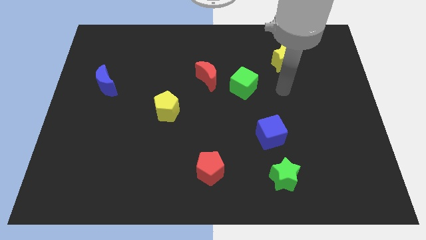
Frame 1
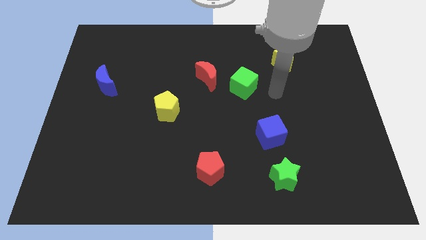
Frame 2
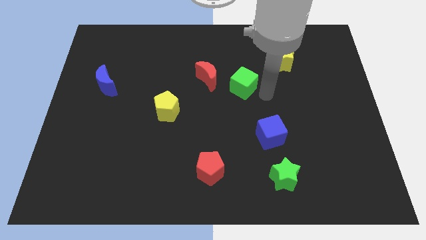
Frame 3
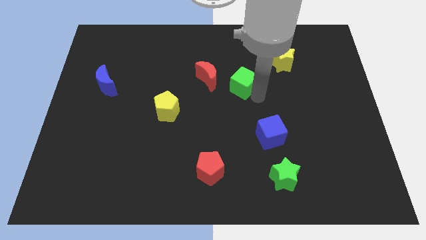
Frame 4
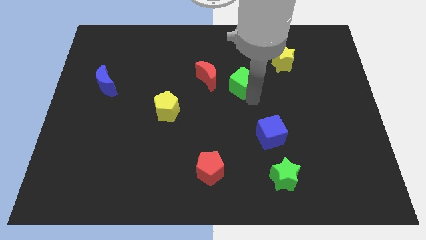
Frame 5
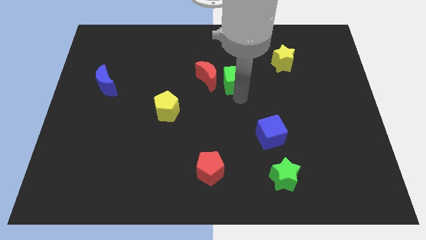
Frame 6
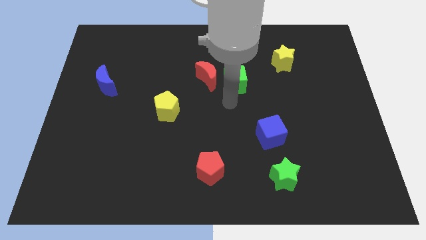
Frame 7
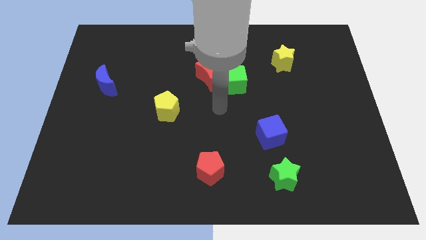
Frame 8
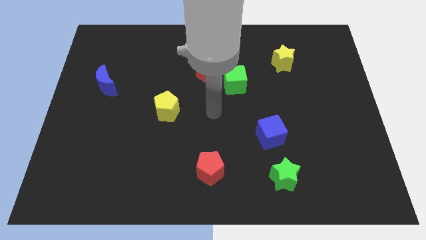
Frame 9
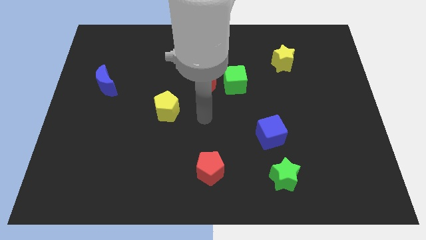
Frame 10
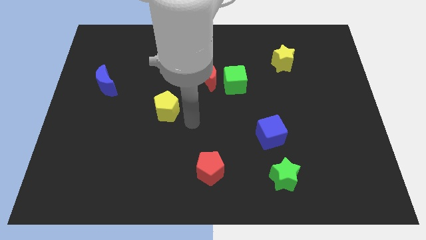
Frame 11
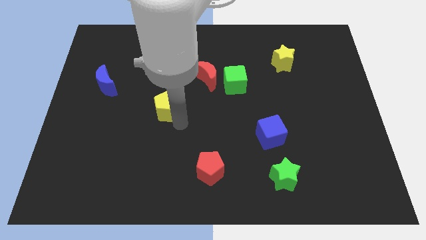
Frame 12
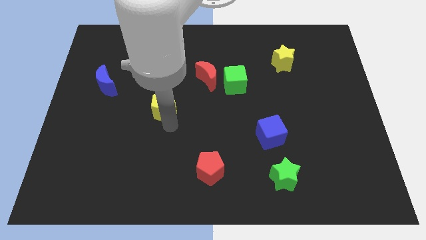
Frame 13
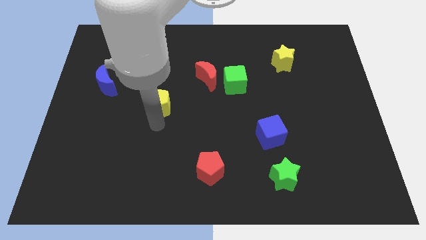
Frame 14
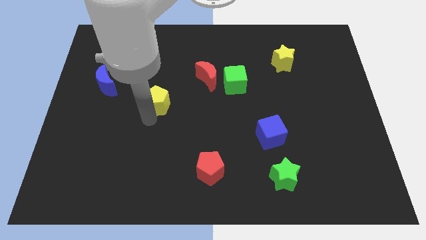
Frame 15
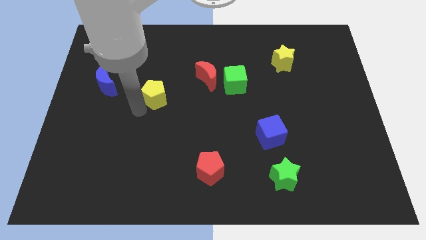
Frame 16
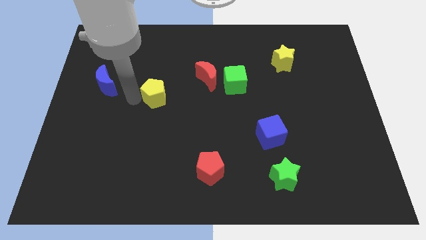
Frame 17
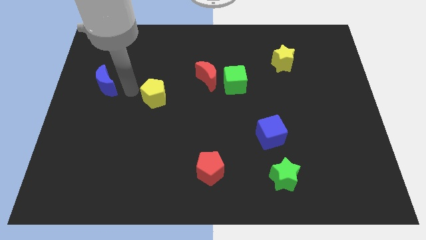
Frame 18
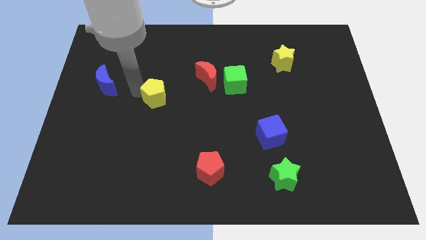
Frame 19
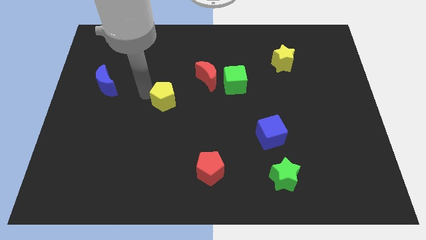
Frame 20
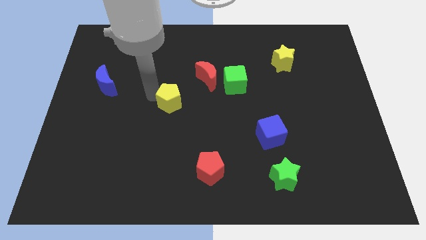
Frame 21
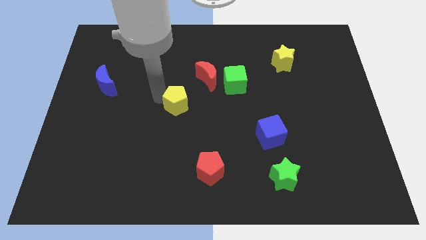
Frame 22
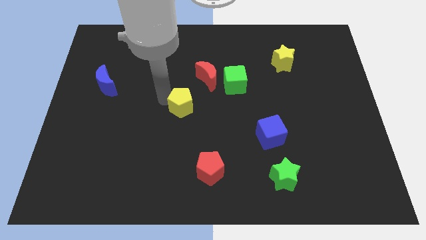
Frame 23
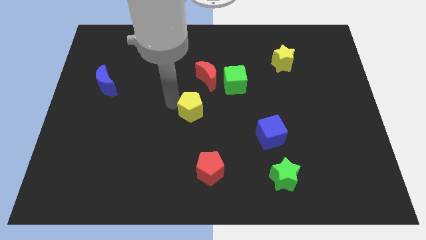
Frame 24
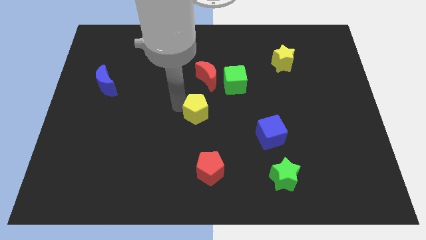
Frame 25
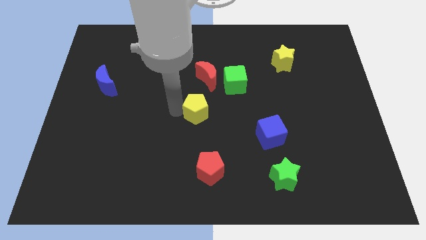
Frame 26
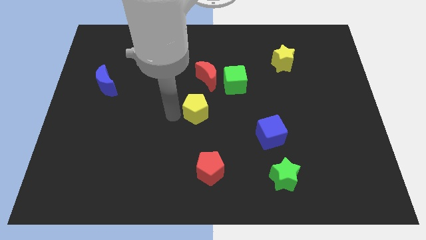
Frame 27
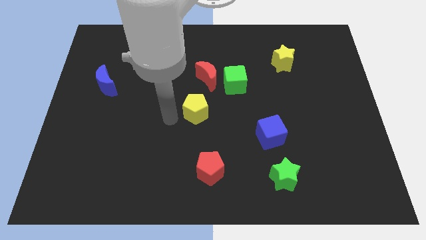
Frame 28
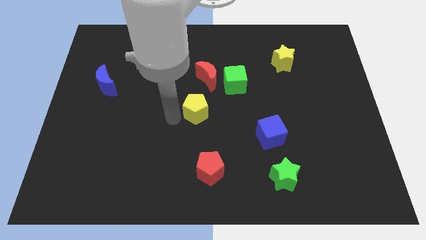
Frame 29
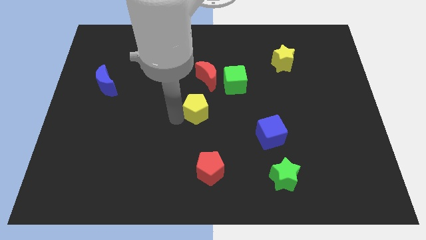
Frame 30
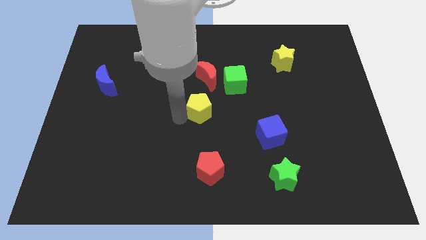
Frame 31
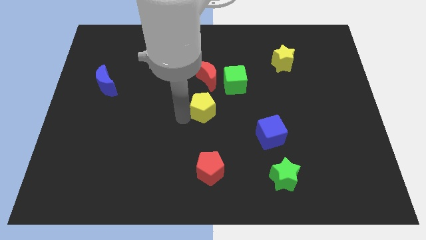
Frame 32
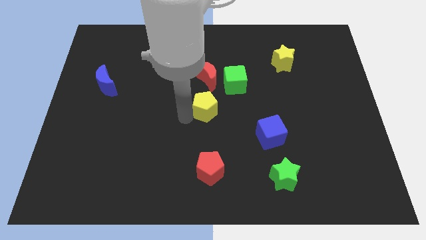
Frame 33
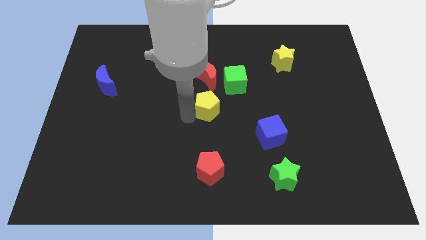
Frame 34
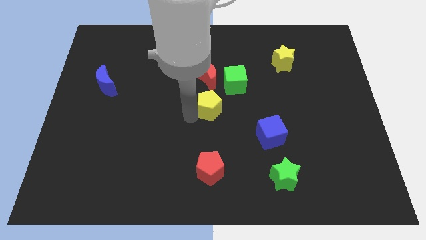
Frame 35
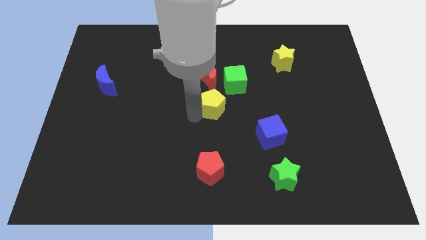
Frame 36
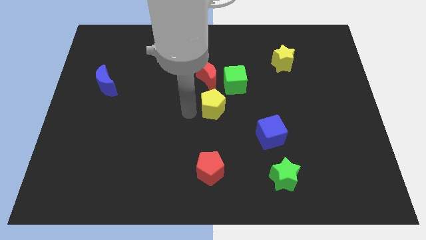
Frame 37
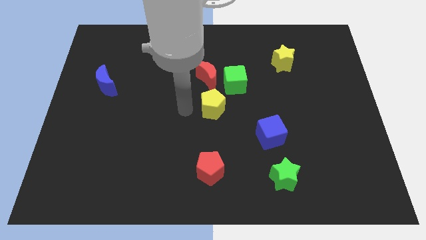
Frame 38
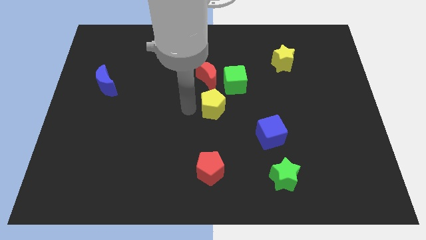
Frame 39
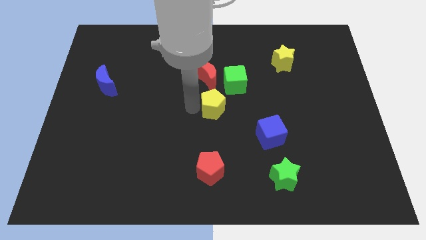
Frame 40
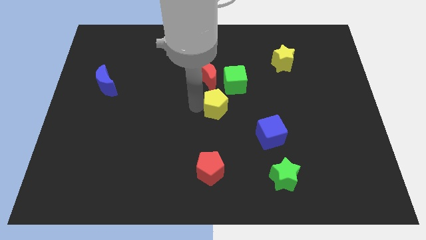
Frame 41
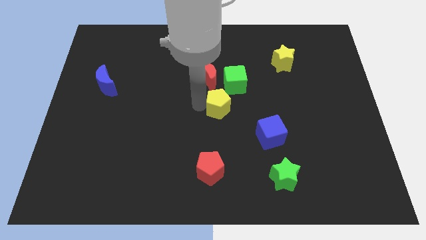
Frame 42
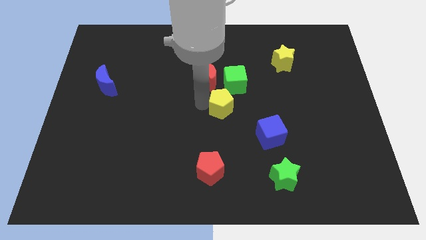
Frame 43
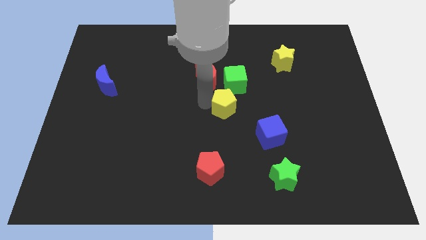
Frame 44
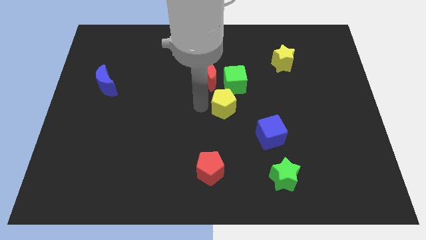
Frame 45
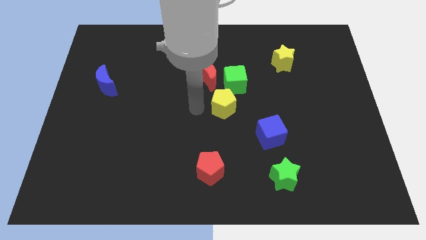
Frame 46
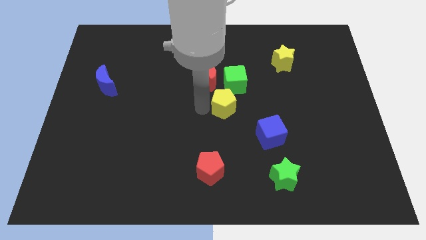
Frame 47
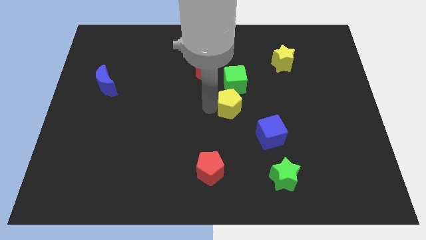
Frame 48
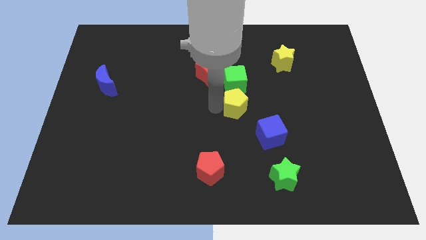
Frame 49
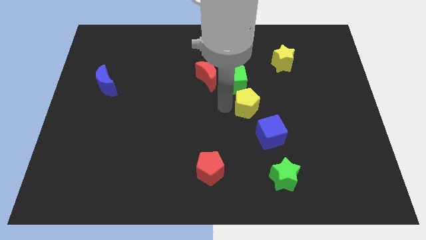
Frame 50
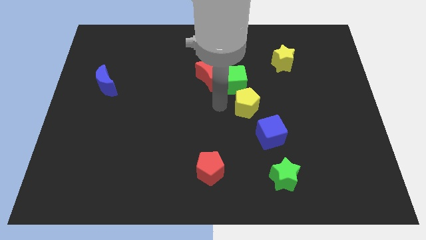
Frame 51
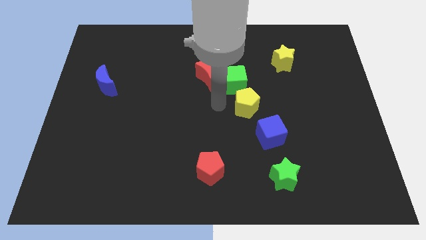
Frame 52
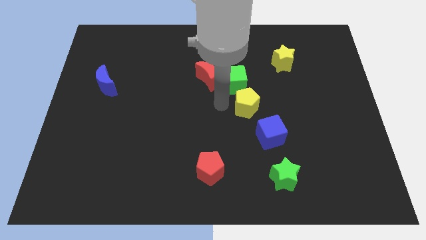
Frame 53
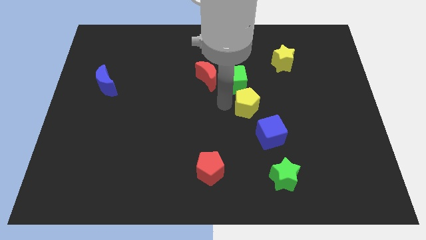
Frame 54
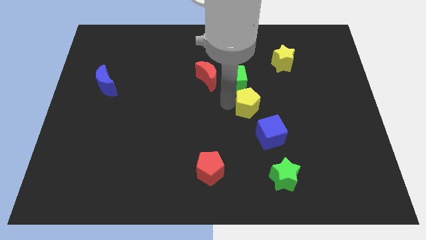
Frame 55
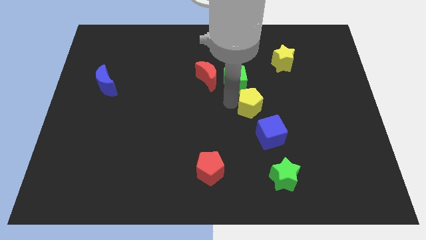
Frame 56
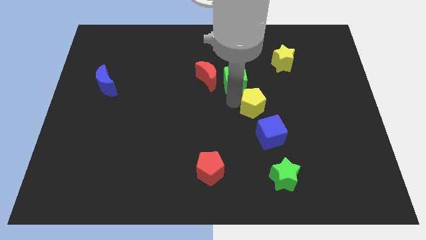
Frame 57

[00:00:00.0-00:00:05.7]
slide the yellow pentagon right

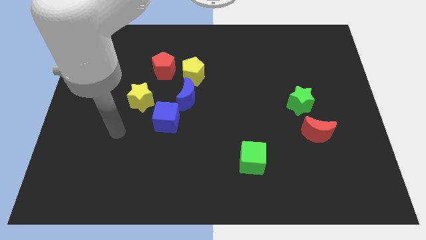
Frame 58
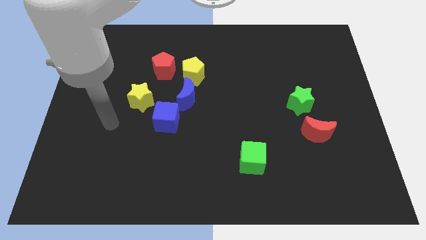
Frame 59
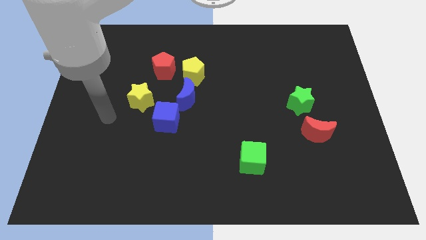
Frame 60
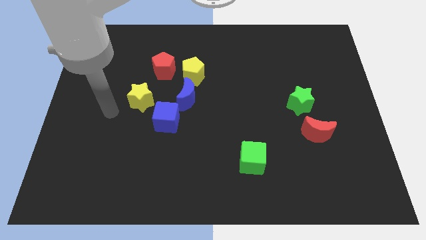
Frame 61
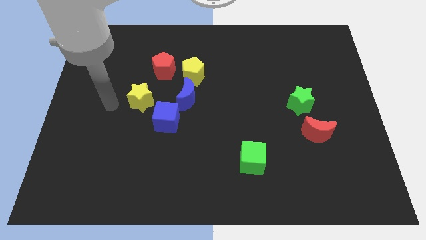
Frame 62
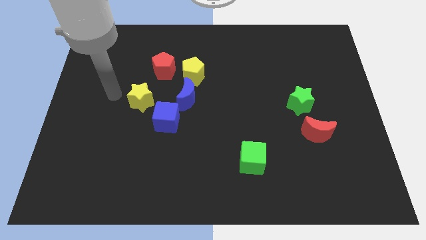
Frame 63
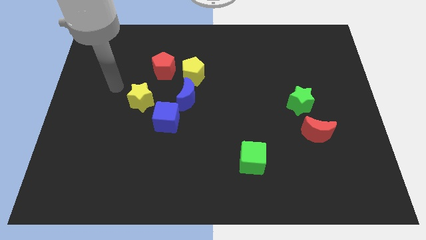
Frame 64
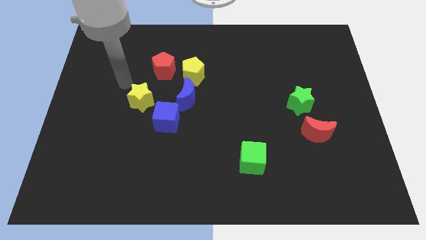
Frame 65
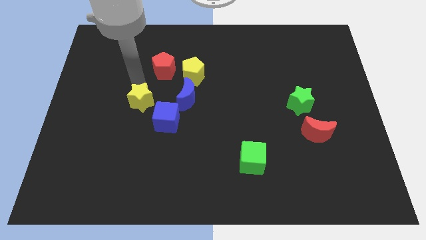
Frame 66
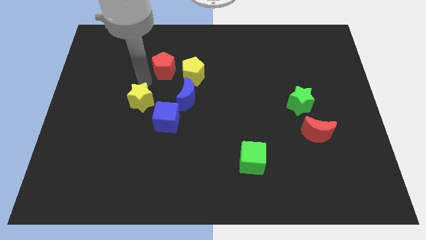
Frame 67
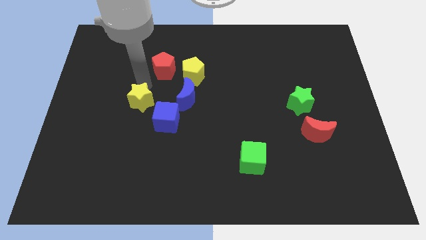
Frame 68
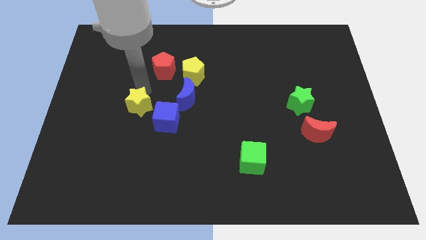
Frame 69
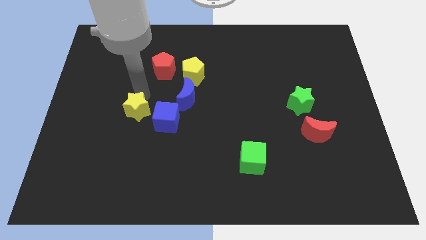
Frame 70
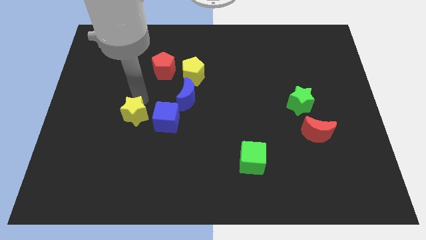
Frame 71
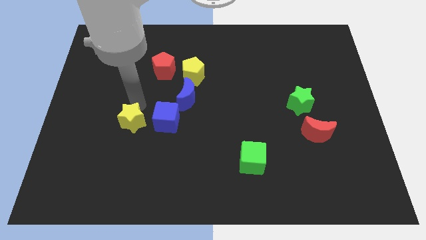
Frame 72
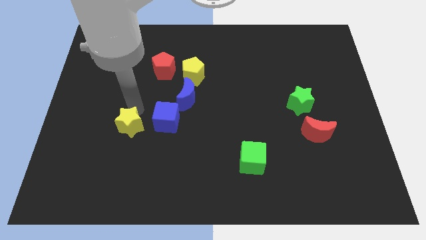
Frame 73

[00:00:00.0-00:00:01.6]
slightly slide the yellow star downwards

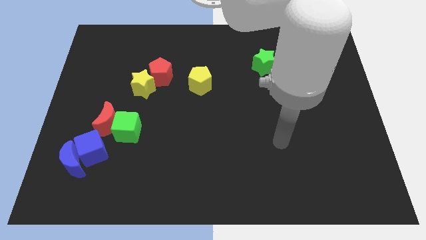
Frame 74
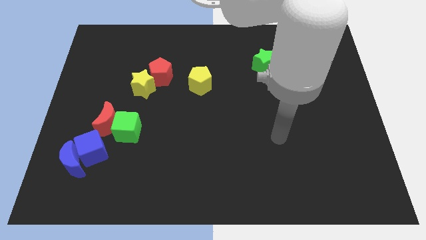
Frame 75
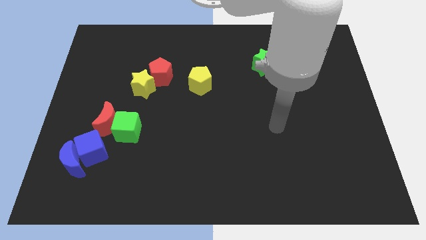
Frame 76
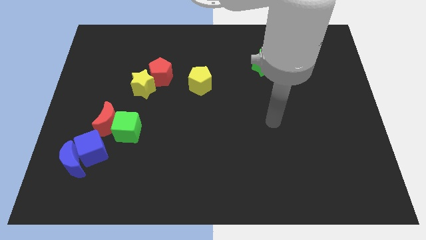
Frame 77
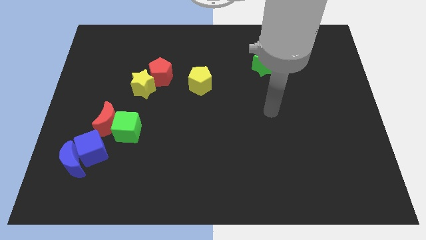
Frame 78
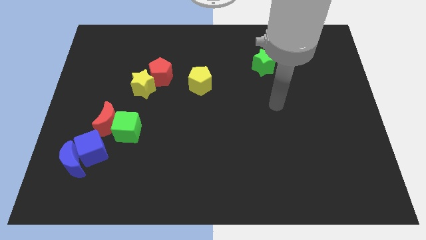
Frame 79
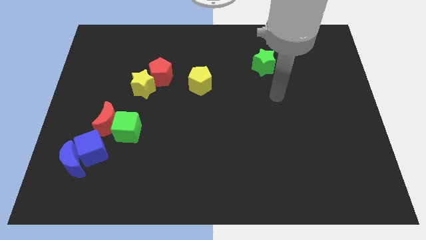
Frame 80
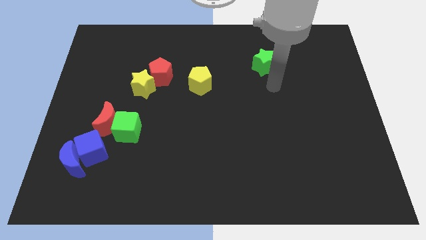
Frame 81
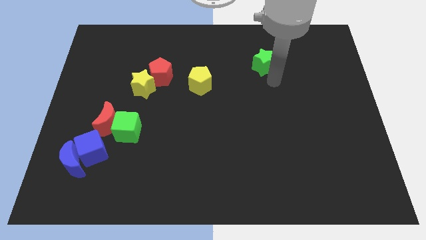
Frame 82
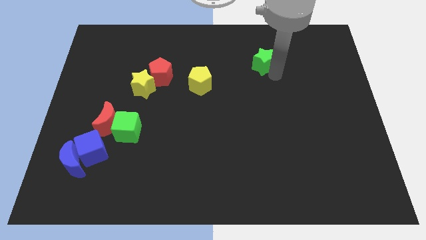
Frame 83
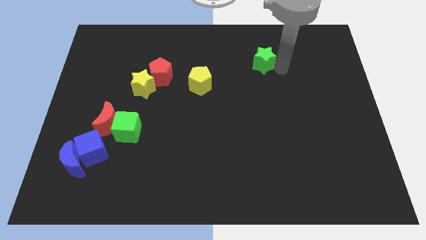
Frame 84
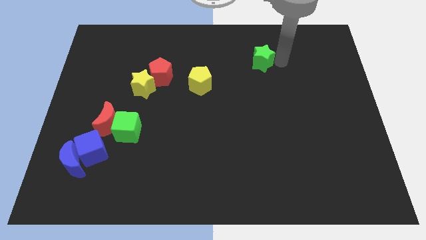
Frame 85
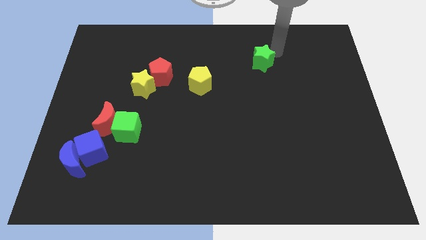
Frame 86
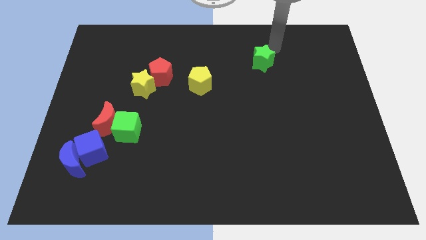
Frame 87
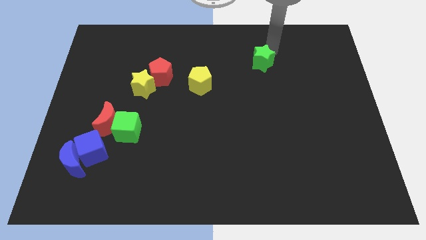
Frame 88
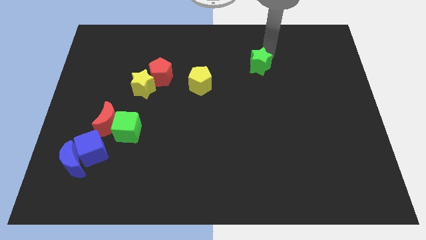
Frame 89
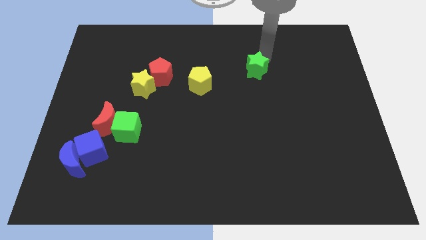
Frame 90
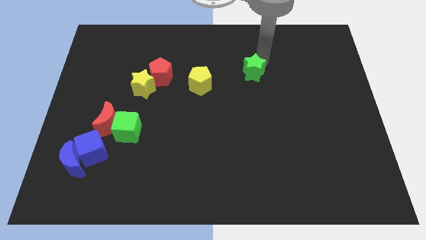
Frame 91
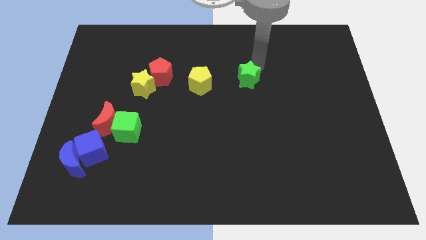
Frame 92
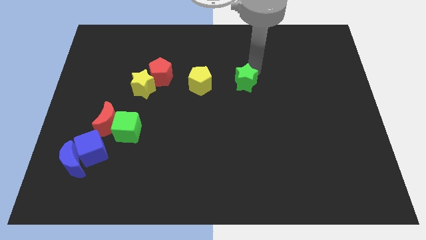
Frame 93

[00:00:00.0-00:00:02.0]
slide the green star down and then left a little
